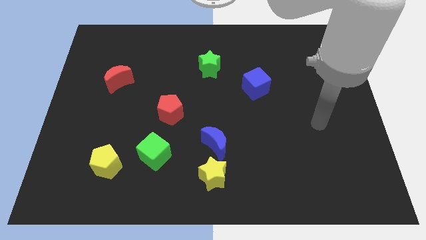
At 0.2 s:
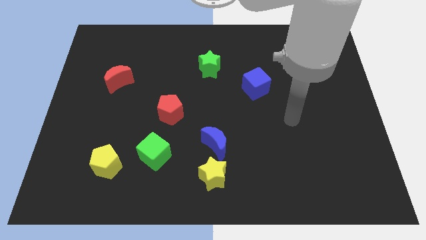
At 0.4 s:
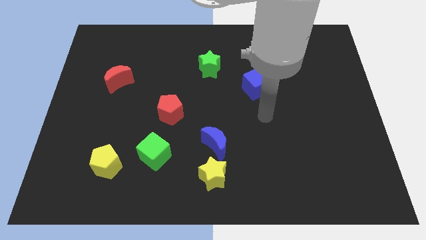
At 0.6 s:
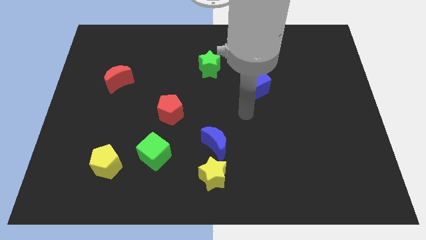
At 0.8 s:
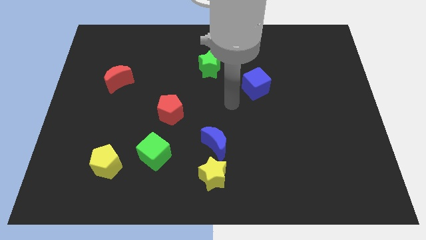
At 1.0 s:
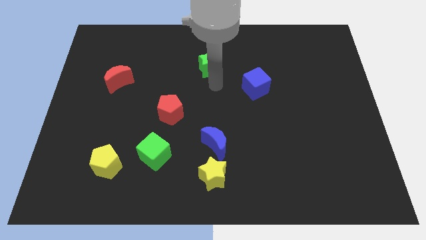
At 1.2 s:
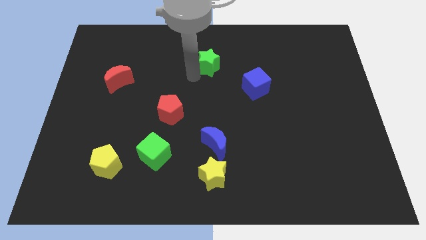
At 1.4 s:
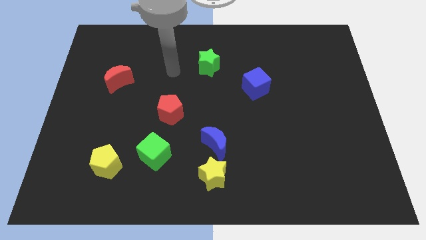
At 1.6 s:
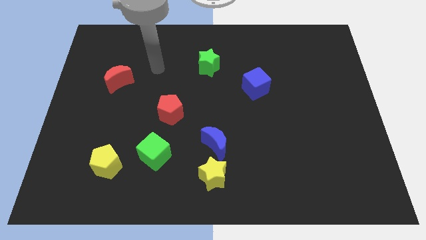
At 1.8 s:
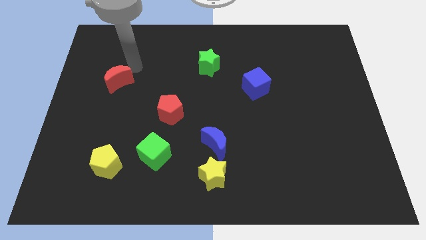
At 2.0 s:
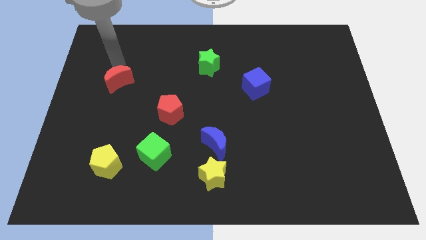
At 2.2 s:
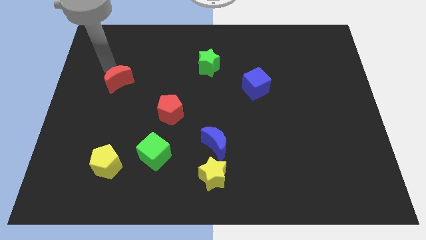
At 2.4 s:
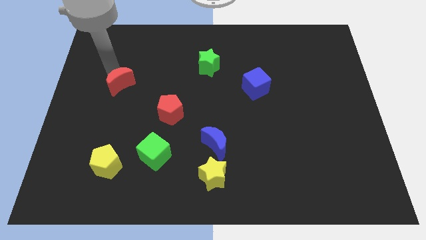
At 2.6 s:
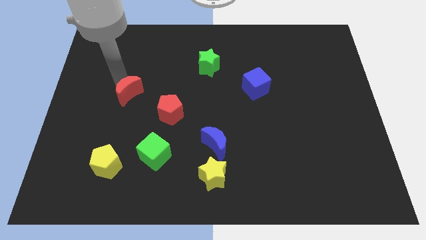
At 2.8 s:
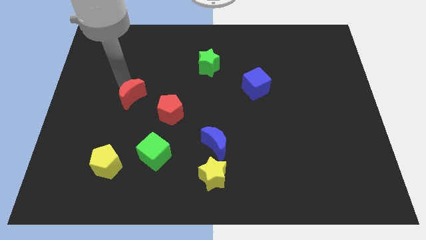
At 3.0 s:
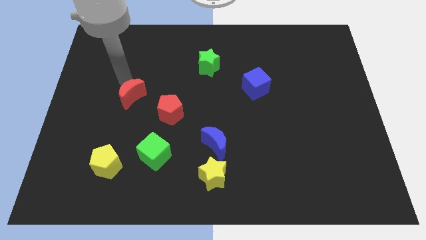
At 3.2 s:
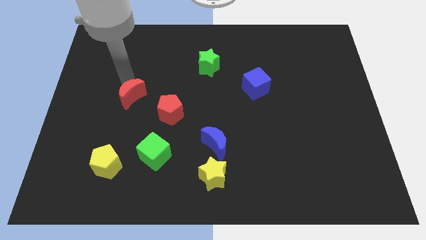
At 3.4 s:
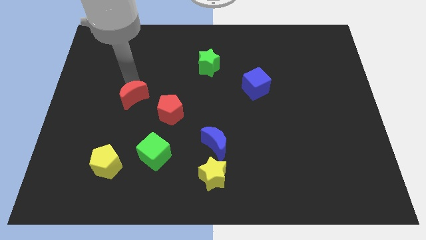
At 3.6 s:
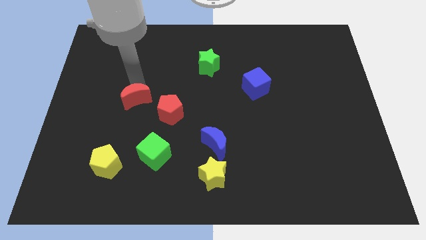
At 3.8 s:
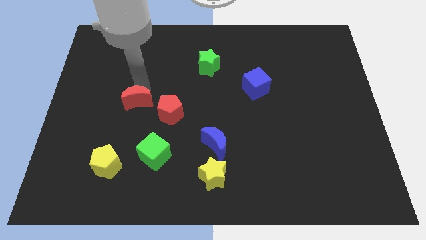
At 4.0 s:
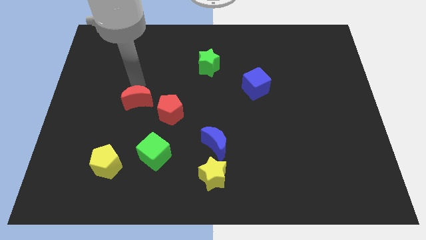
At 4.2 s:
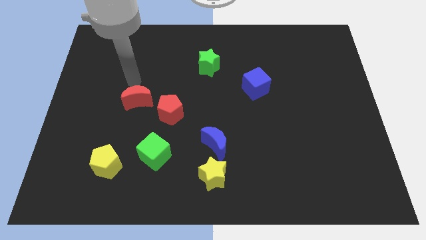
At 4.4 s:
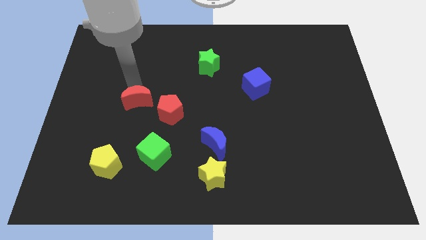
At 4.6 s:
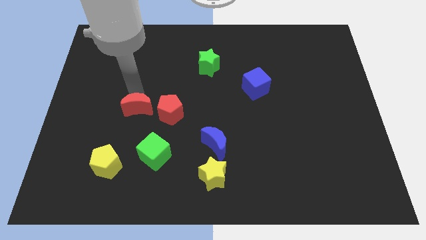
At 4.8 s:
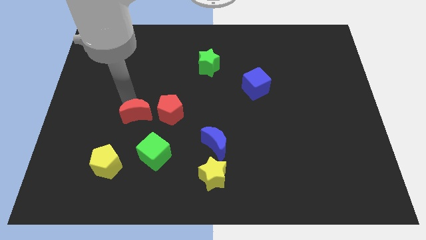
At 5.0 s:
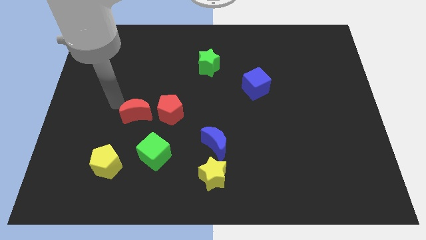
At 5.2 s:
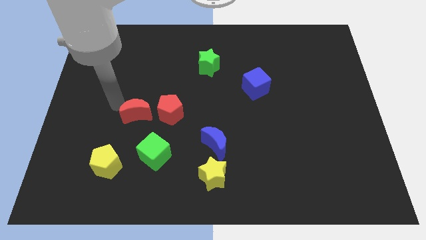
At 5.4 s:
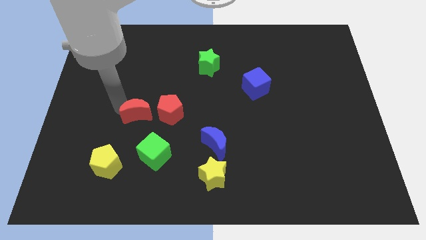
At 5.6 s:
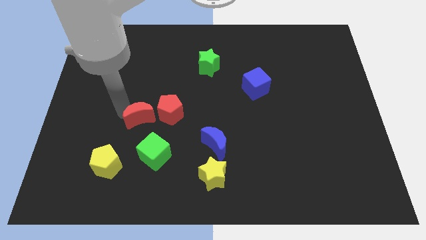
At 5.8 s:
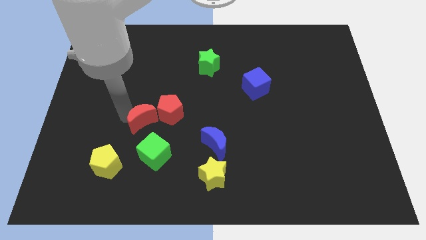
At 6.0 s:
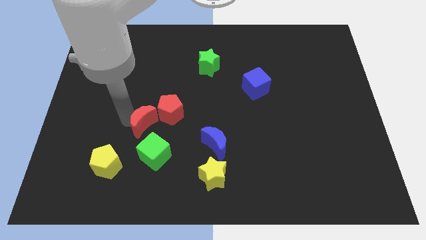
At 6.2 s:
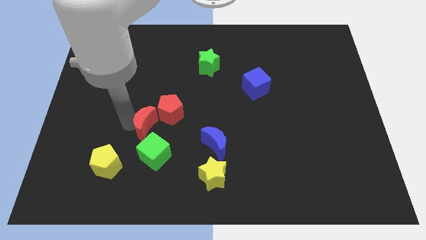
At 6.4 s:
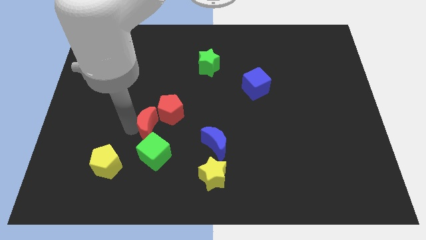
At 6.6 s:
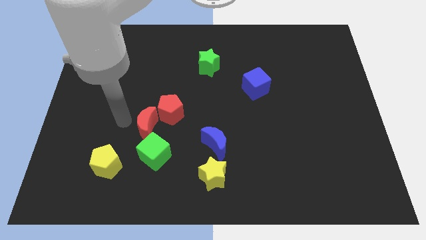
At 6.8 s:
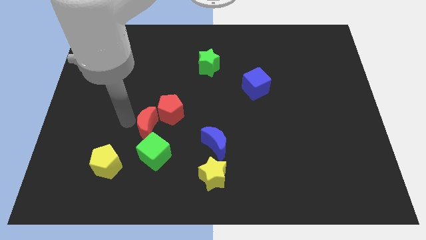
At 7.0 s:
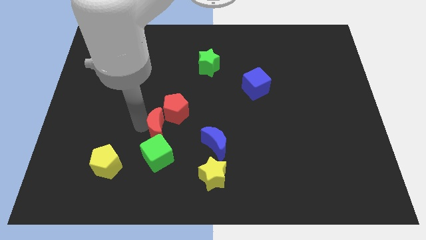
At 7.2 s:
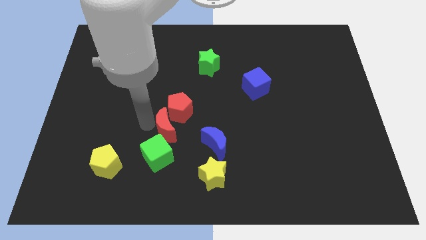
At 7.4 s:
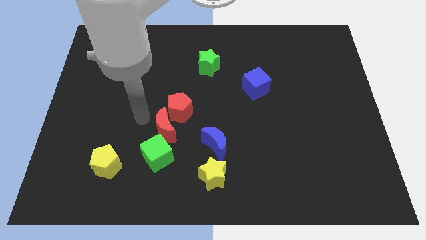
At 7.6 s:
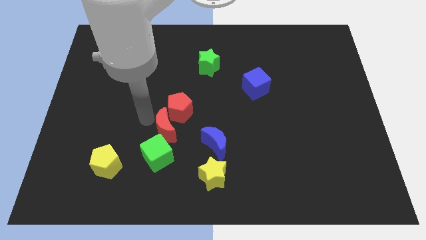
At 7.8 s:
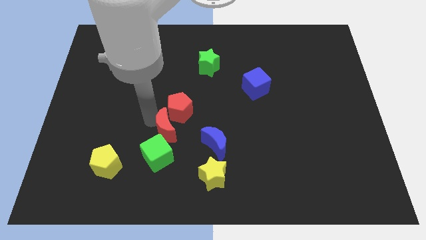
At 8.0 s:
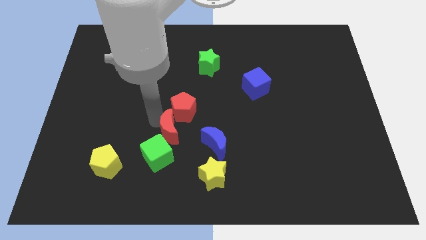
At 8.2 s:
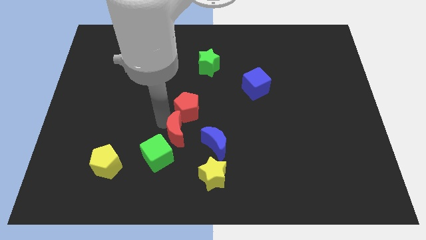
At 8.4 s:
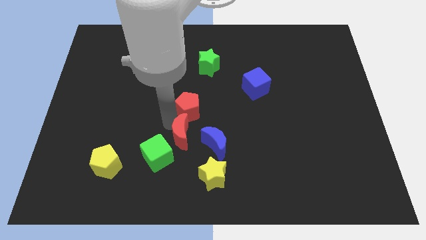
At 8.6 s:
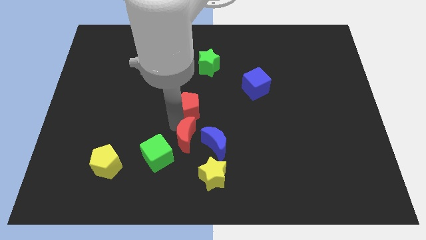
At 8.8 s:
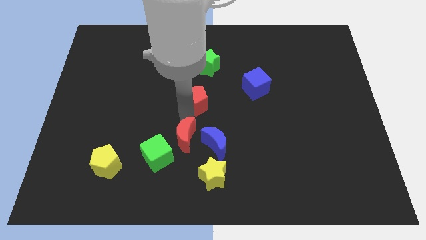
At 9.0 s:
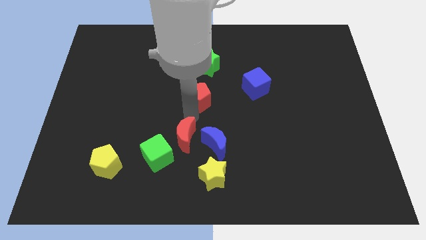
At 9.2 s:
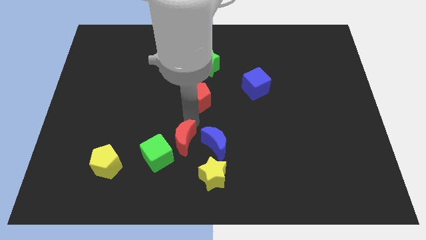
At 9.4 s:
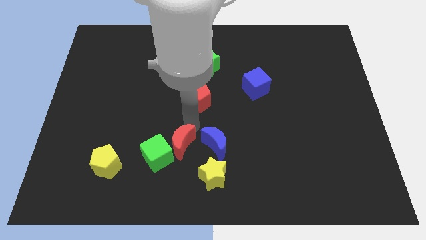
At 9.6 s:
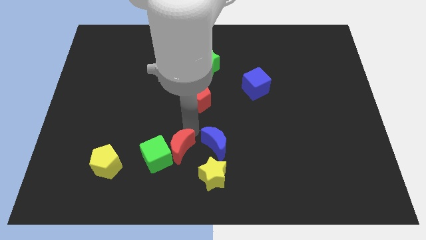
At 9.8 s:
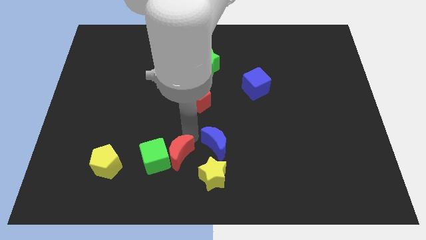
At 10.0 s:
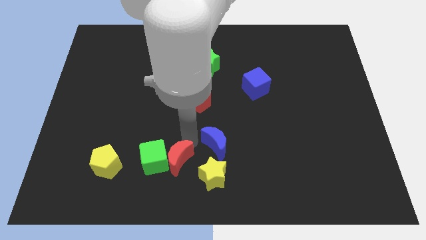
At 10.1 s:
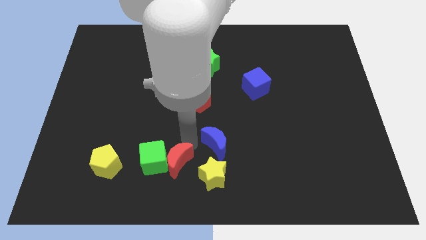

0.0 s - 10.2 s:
move the red moon to the bottom side

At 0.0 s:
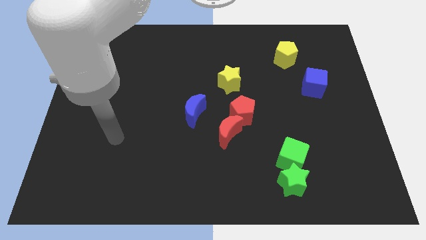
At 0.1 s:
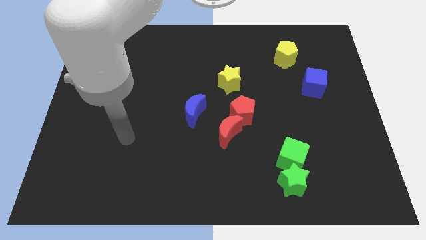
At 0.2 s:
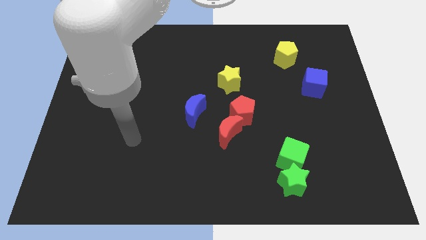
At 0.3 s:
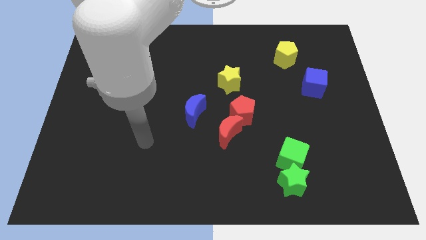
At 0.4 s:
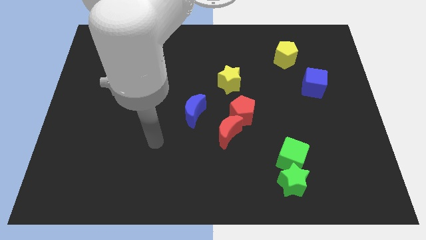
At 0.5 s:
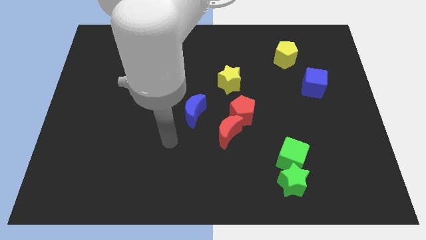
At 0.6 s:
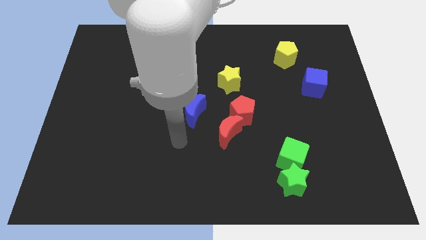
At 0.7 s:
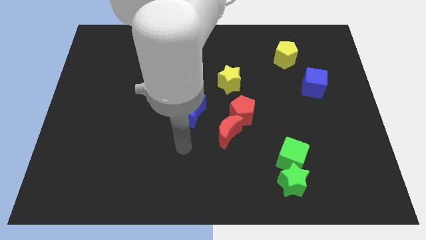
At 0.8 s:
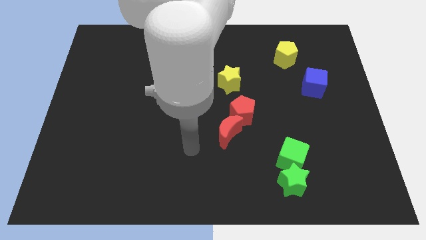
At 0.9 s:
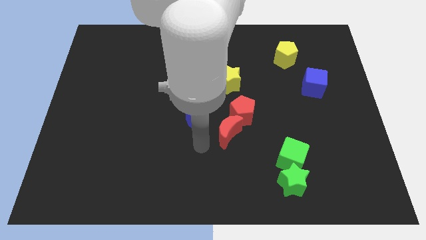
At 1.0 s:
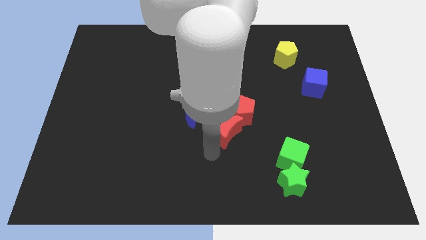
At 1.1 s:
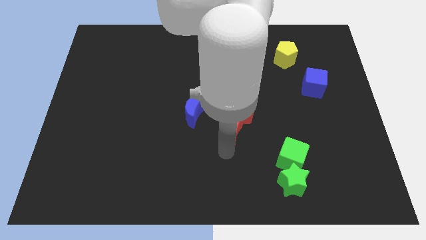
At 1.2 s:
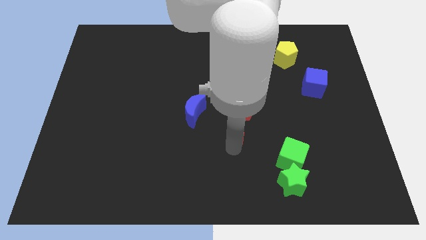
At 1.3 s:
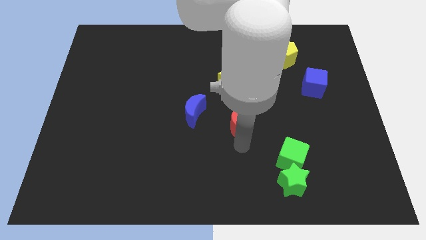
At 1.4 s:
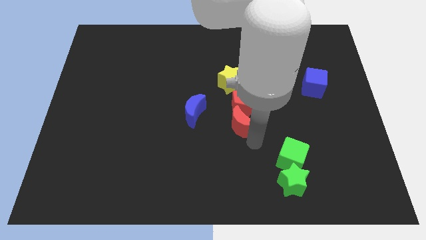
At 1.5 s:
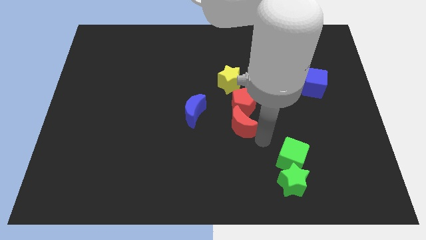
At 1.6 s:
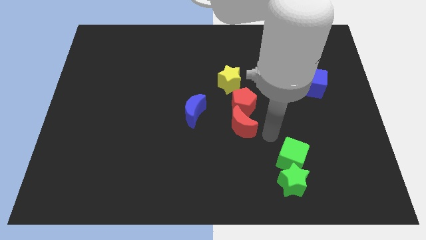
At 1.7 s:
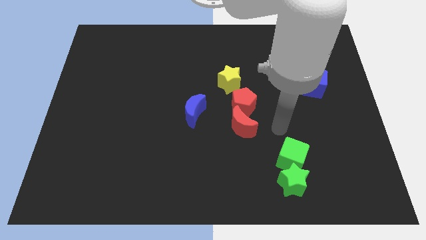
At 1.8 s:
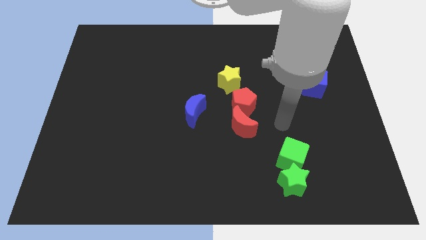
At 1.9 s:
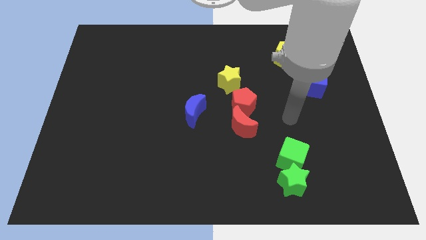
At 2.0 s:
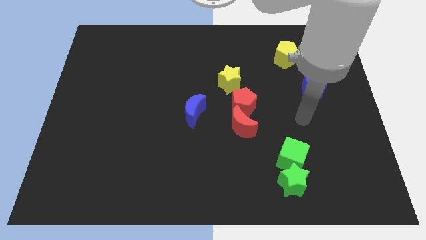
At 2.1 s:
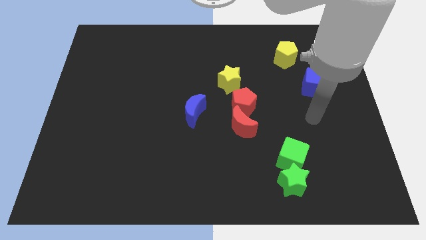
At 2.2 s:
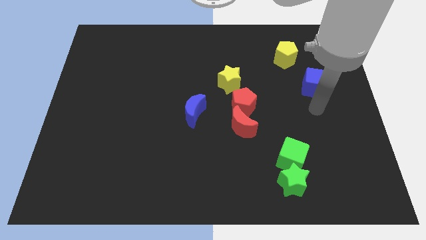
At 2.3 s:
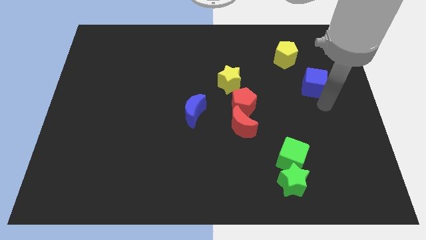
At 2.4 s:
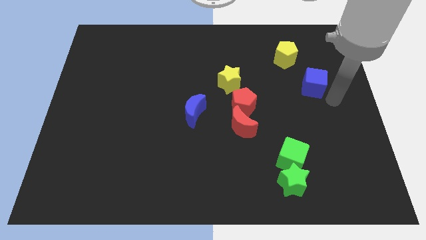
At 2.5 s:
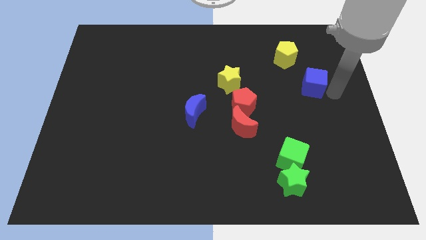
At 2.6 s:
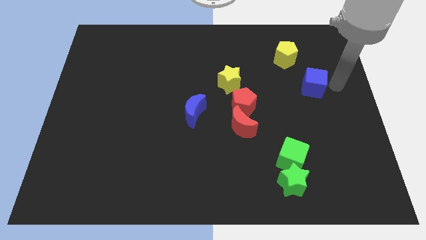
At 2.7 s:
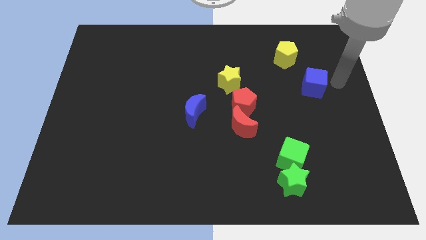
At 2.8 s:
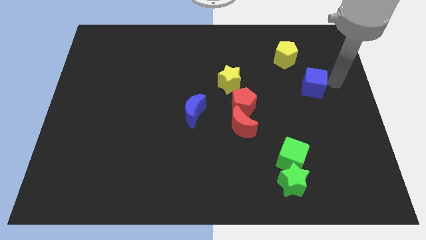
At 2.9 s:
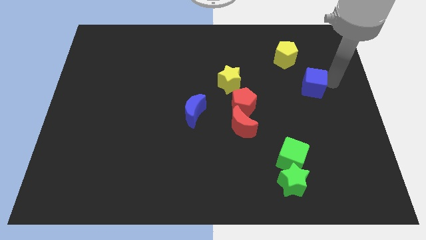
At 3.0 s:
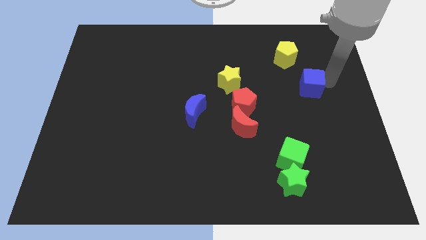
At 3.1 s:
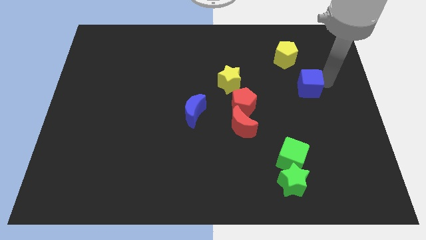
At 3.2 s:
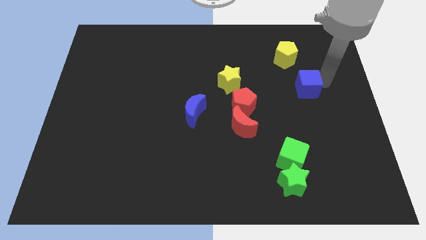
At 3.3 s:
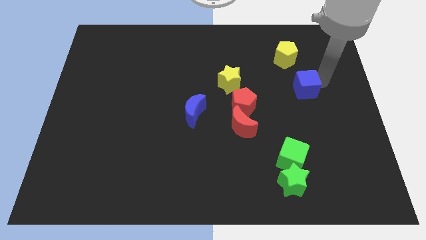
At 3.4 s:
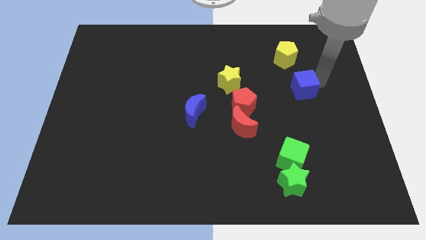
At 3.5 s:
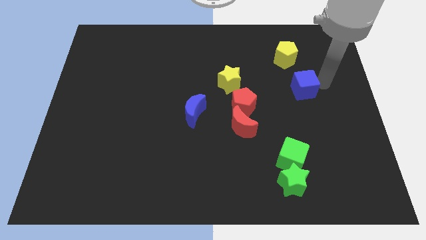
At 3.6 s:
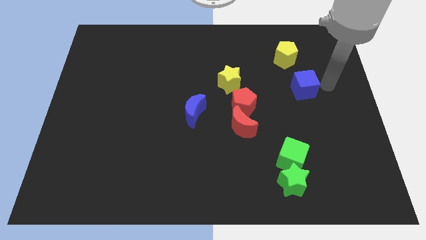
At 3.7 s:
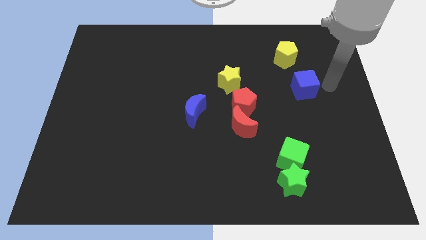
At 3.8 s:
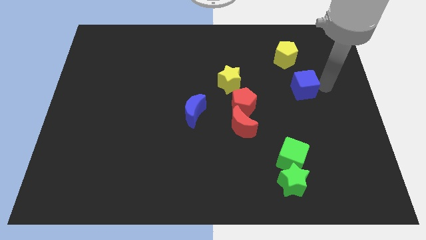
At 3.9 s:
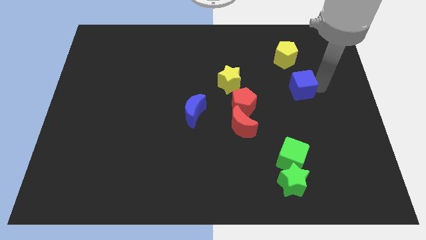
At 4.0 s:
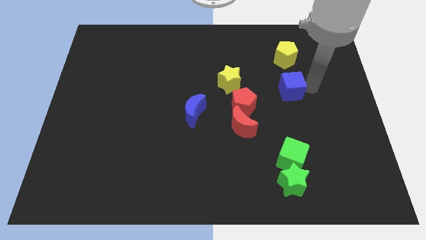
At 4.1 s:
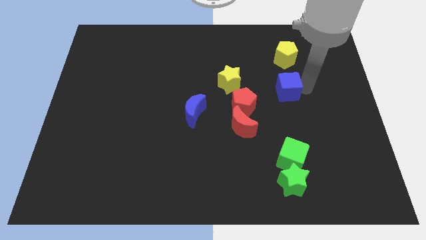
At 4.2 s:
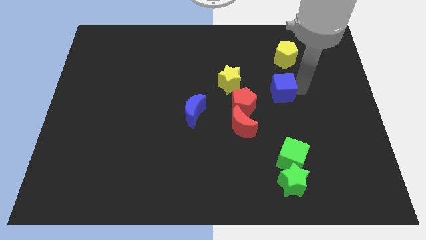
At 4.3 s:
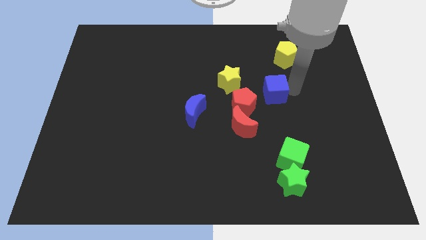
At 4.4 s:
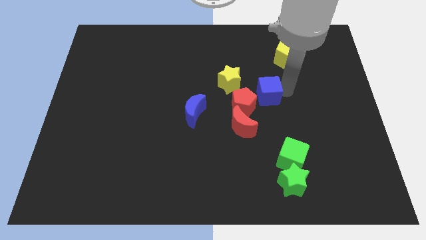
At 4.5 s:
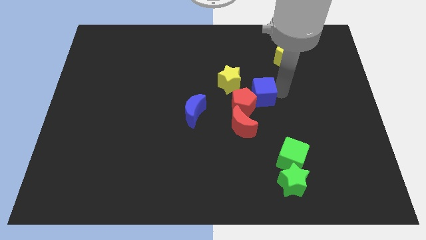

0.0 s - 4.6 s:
push the blue cube to the middle
